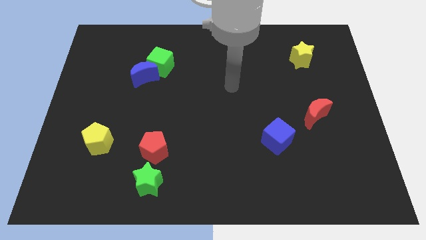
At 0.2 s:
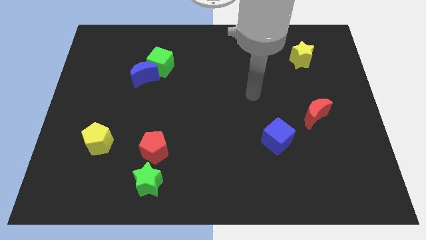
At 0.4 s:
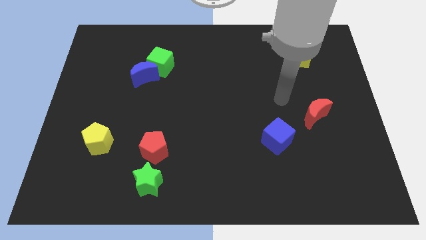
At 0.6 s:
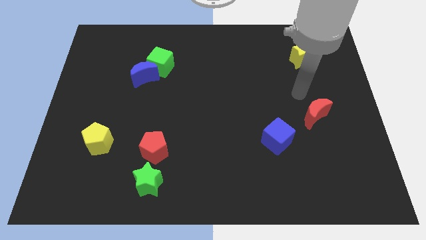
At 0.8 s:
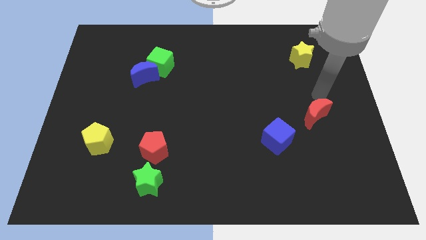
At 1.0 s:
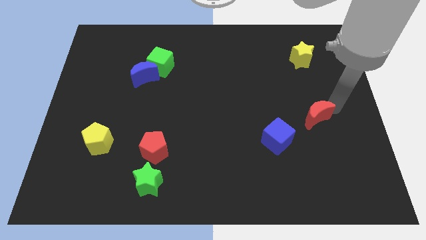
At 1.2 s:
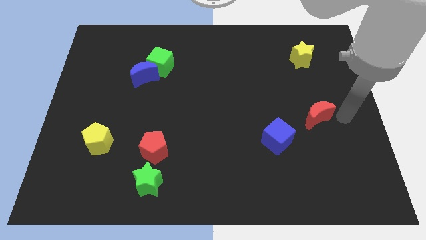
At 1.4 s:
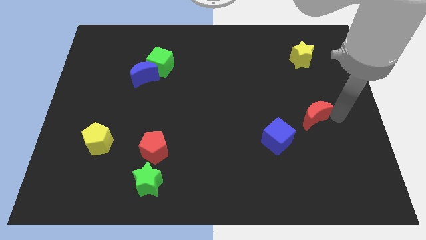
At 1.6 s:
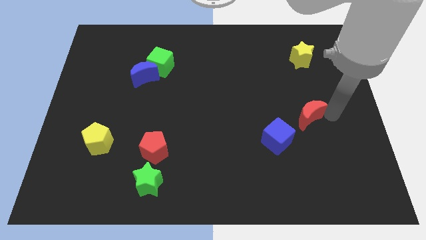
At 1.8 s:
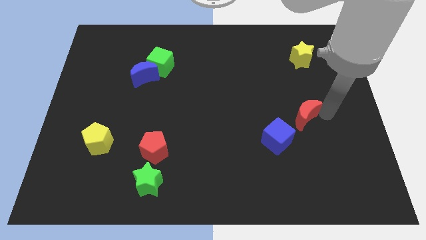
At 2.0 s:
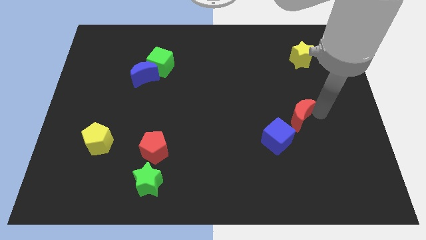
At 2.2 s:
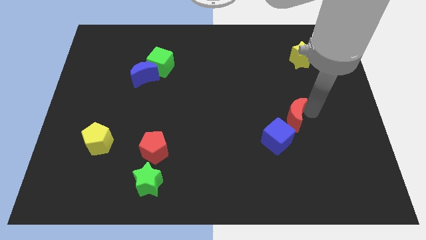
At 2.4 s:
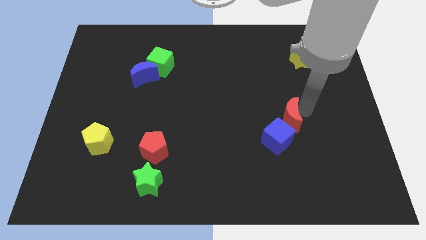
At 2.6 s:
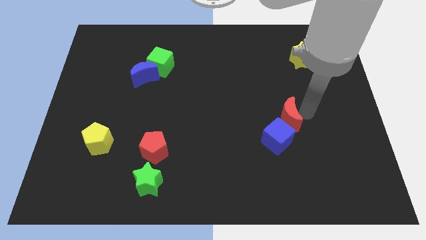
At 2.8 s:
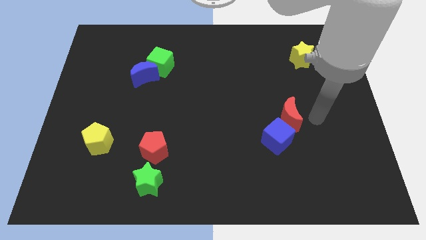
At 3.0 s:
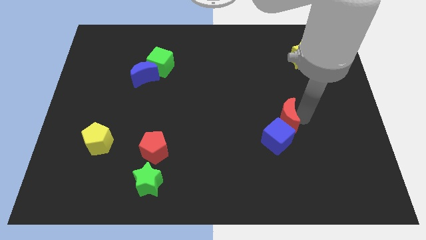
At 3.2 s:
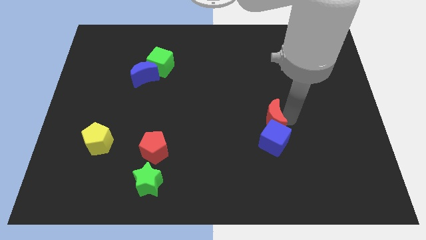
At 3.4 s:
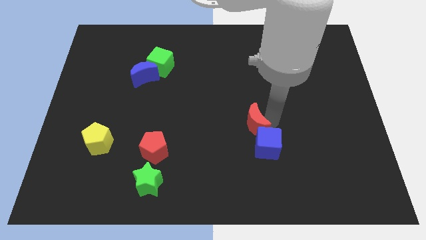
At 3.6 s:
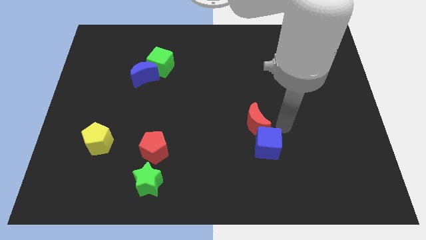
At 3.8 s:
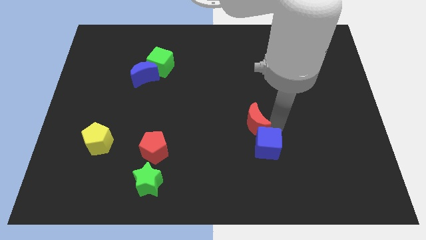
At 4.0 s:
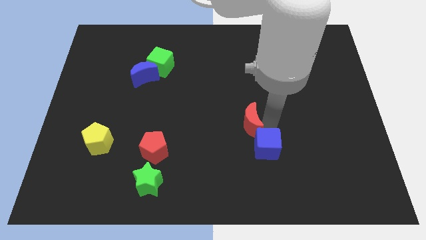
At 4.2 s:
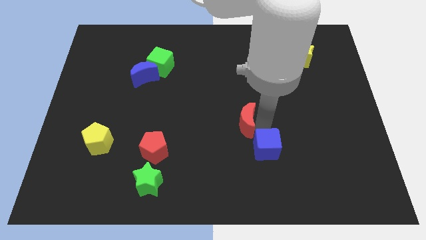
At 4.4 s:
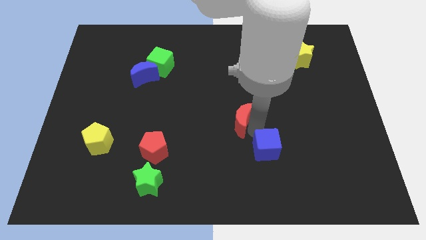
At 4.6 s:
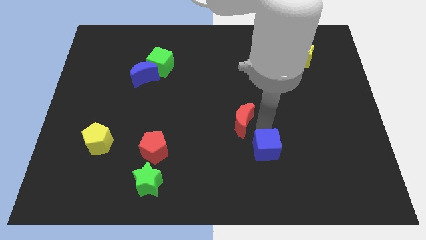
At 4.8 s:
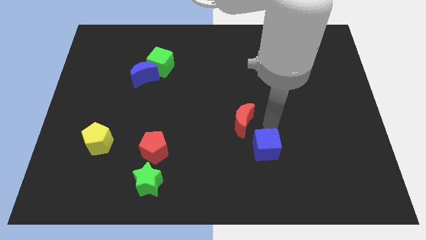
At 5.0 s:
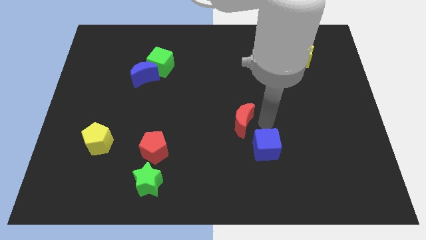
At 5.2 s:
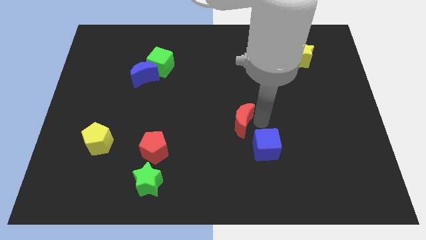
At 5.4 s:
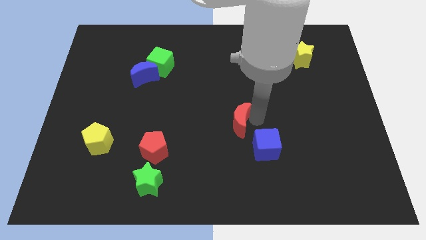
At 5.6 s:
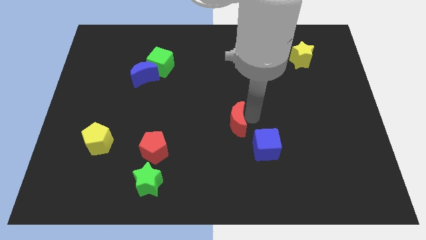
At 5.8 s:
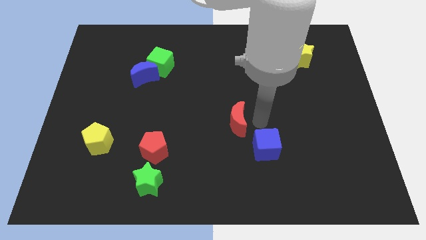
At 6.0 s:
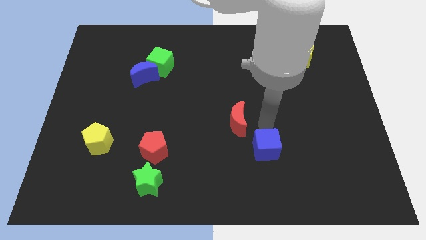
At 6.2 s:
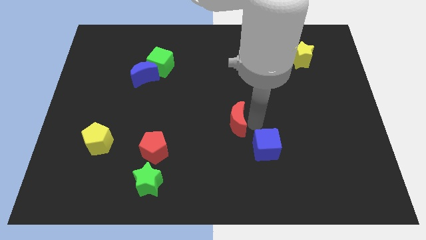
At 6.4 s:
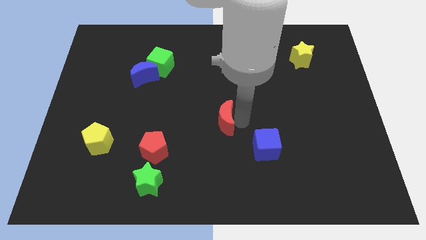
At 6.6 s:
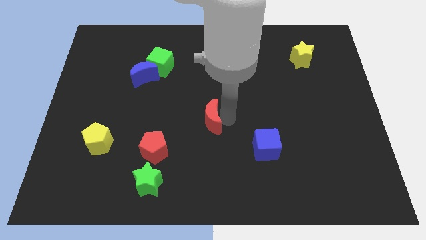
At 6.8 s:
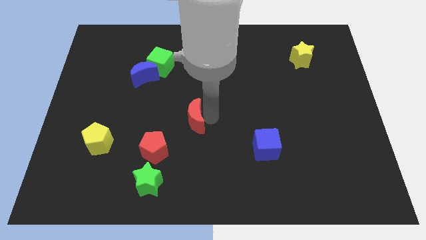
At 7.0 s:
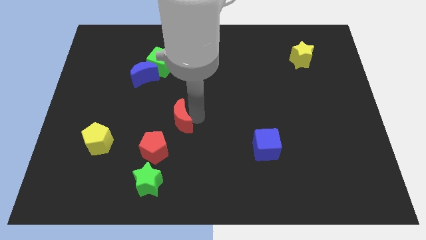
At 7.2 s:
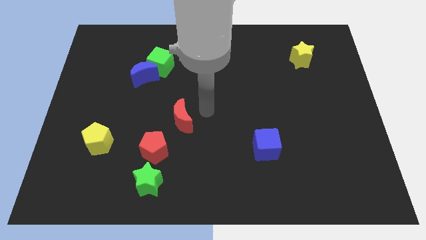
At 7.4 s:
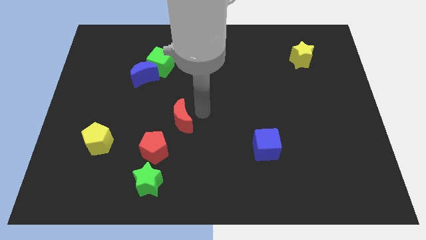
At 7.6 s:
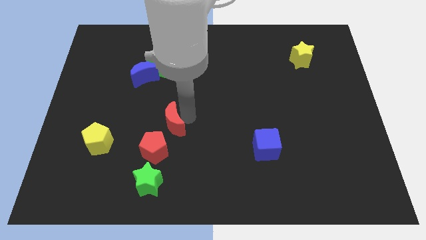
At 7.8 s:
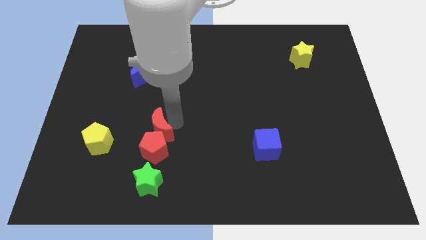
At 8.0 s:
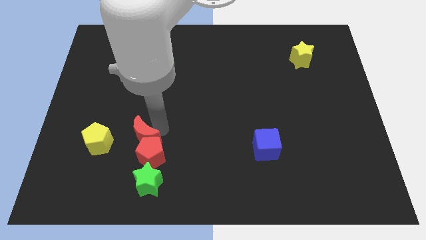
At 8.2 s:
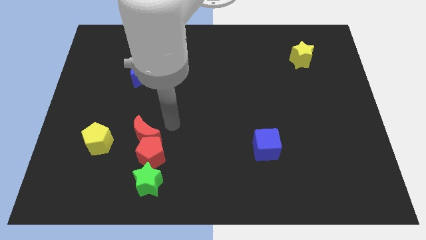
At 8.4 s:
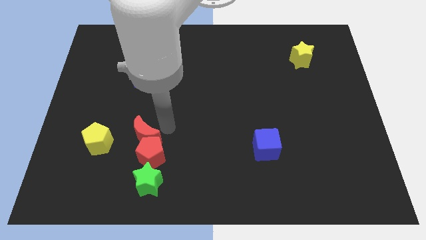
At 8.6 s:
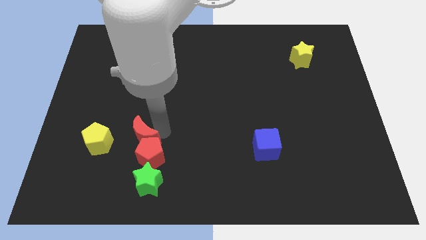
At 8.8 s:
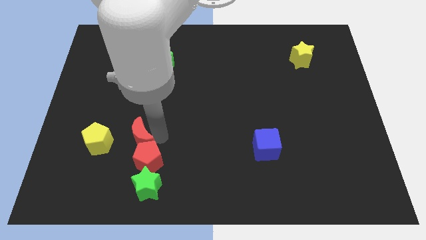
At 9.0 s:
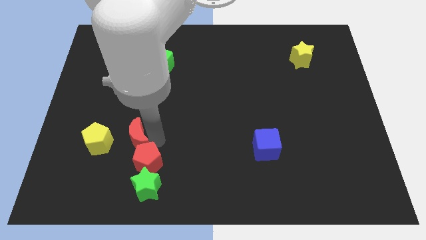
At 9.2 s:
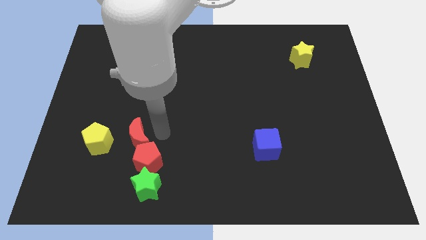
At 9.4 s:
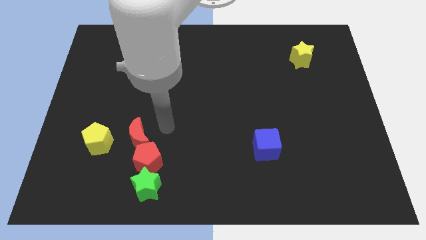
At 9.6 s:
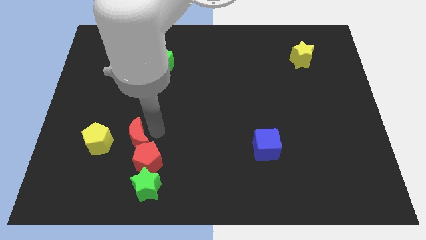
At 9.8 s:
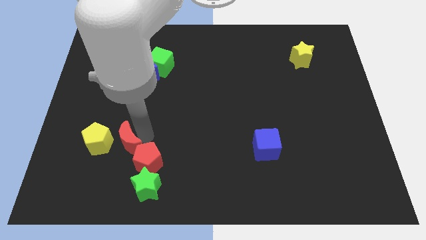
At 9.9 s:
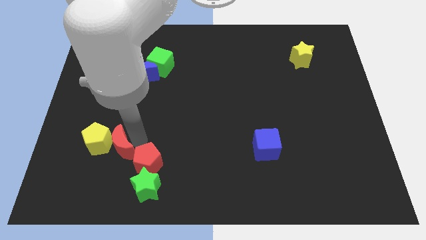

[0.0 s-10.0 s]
slide the red moon next to the yellow pentagon

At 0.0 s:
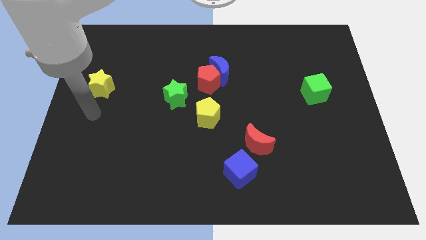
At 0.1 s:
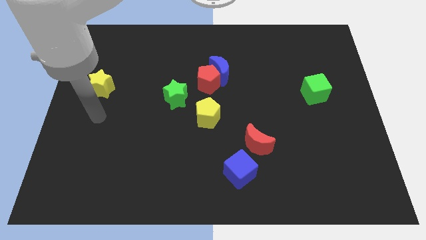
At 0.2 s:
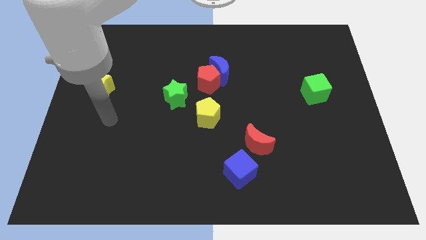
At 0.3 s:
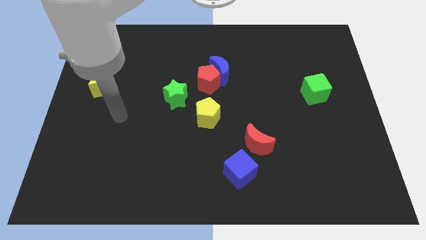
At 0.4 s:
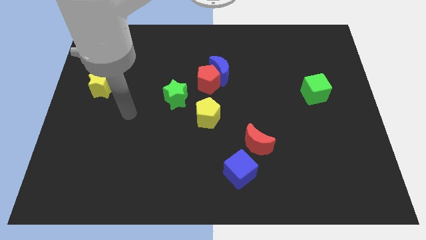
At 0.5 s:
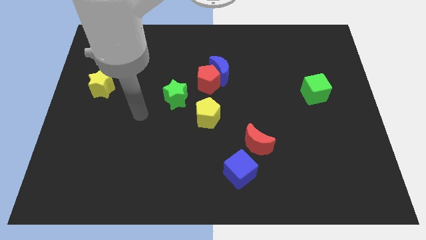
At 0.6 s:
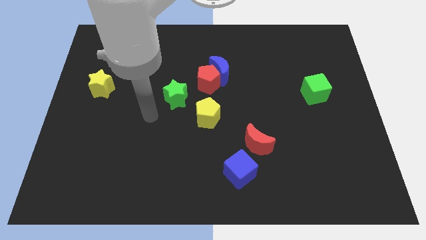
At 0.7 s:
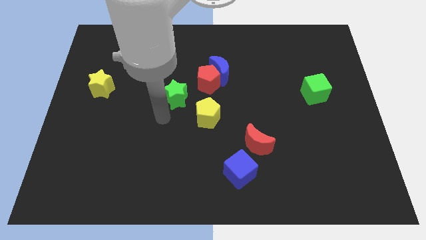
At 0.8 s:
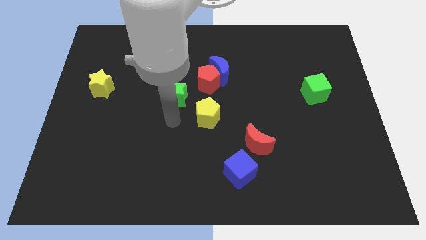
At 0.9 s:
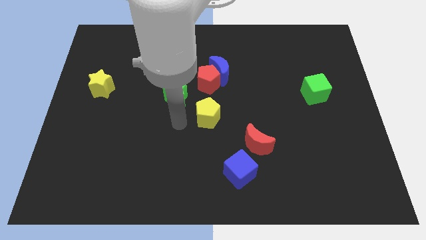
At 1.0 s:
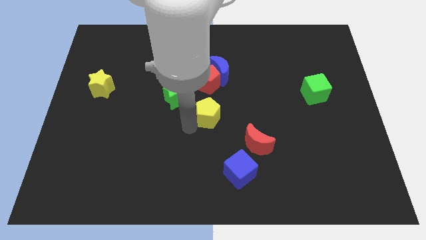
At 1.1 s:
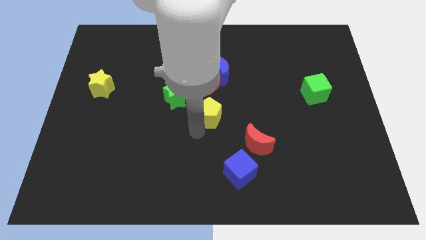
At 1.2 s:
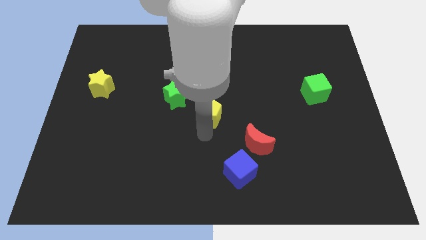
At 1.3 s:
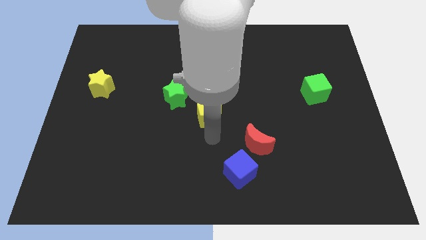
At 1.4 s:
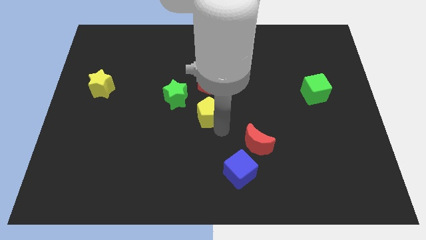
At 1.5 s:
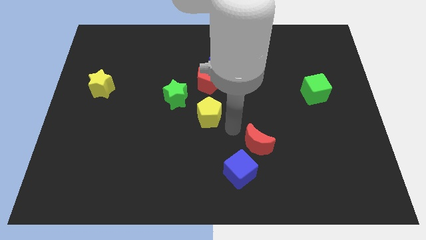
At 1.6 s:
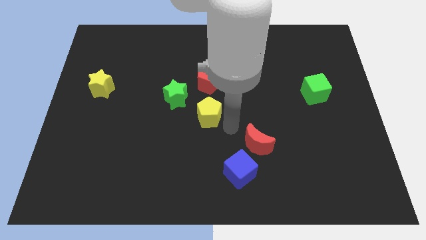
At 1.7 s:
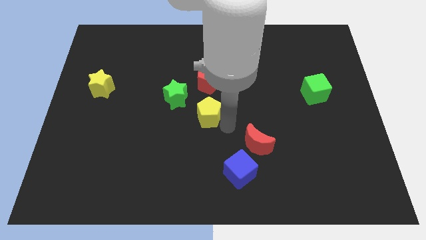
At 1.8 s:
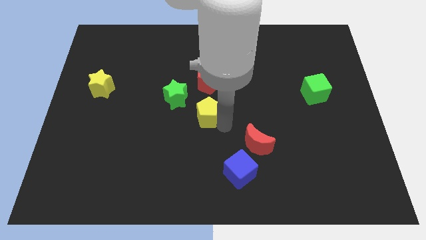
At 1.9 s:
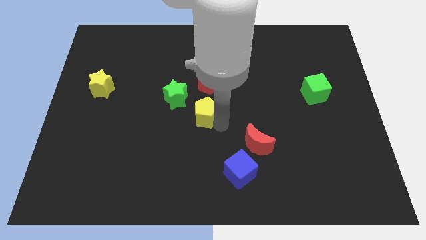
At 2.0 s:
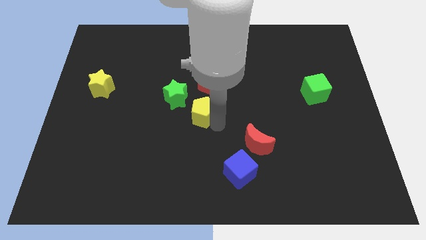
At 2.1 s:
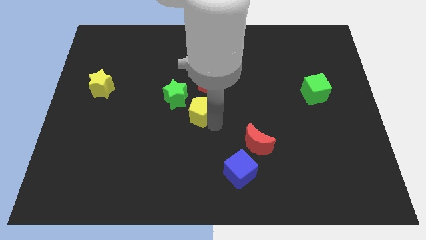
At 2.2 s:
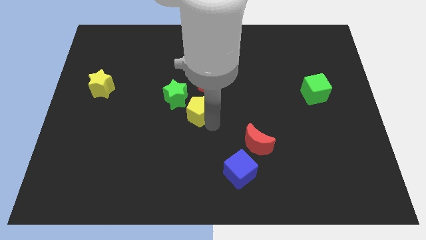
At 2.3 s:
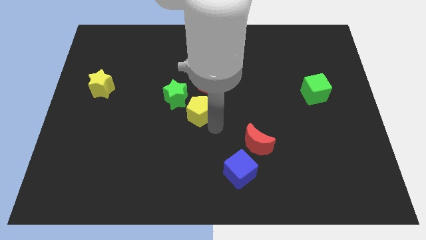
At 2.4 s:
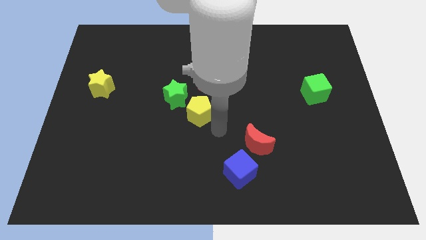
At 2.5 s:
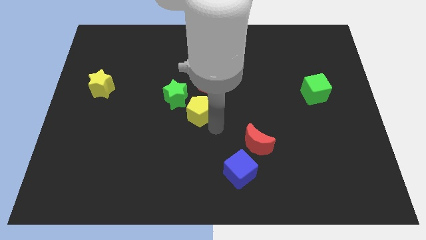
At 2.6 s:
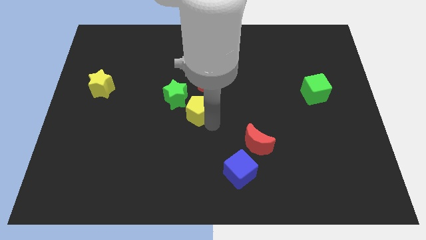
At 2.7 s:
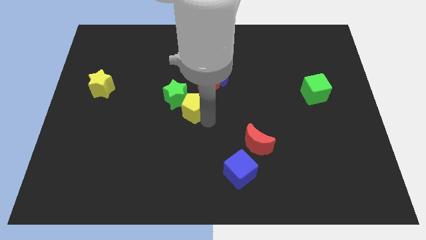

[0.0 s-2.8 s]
slide the yellow pentagon close to the green star
